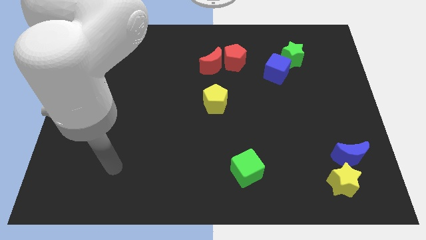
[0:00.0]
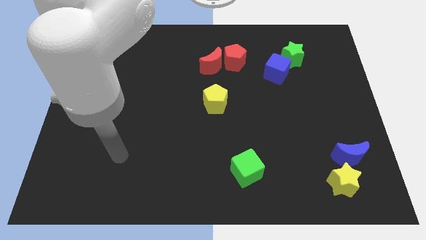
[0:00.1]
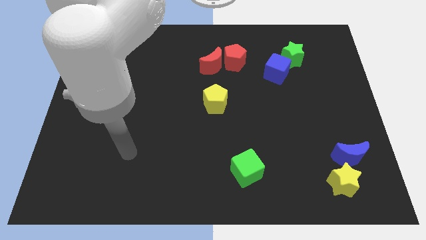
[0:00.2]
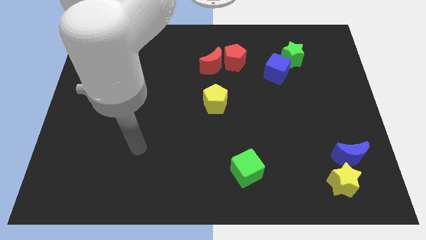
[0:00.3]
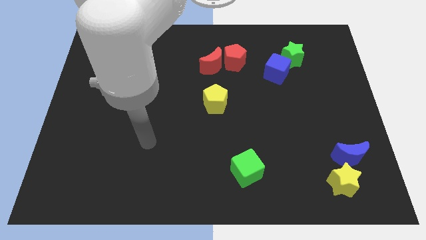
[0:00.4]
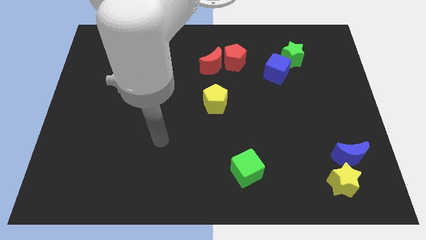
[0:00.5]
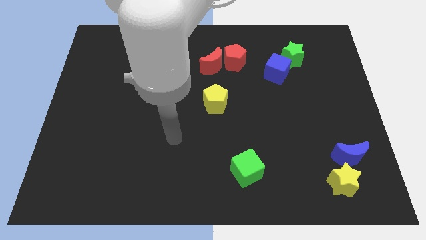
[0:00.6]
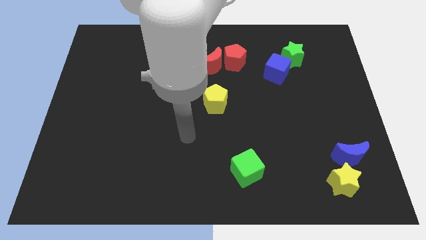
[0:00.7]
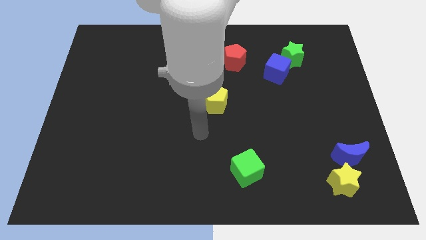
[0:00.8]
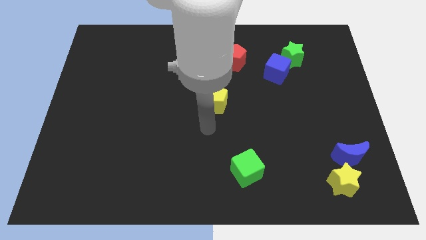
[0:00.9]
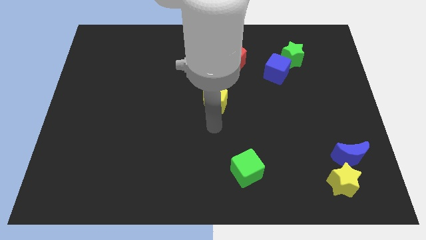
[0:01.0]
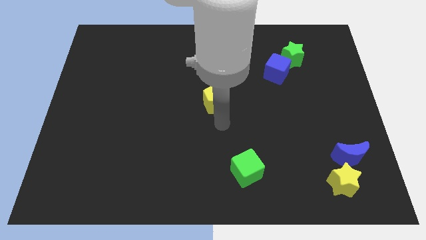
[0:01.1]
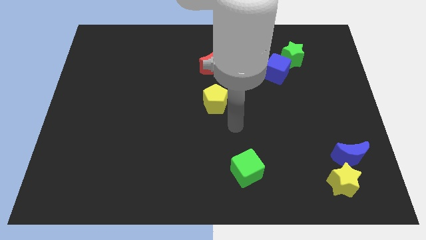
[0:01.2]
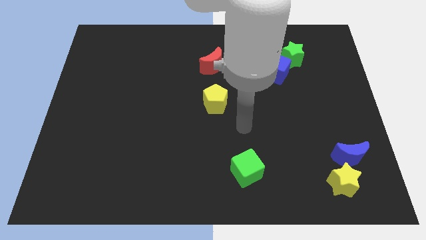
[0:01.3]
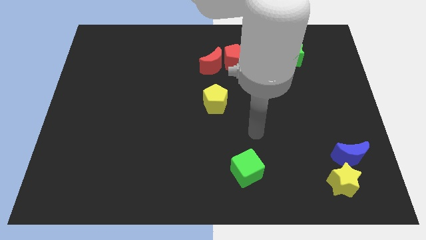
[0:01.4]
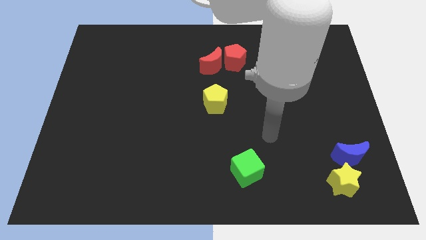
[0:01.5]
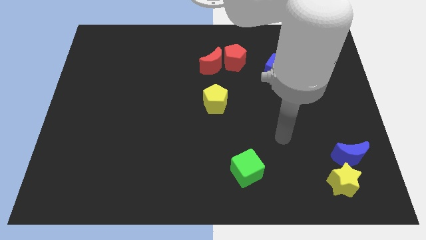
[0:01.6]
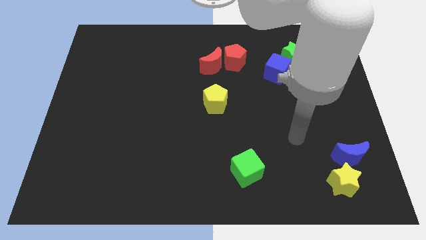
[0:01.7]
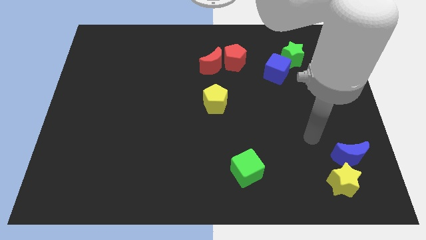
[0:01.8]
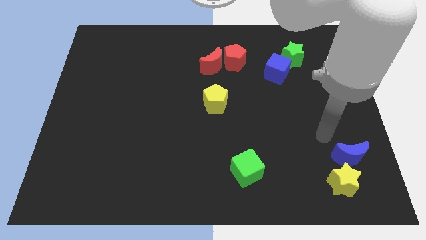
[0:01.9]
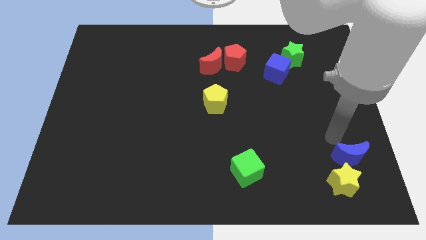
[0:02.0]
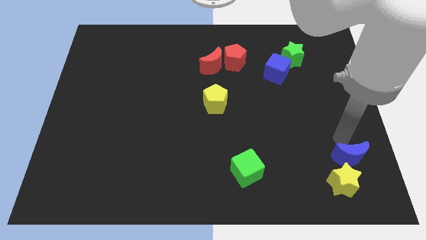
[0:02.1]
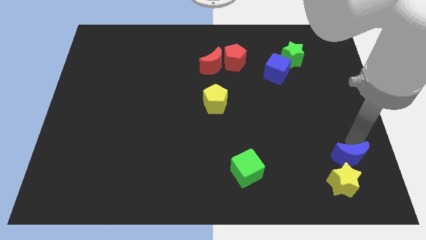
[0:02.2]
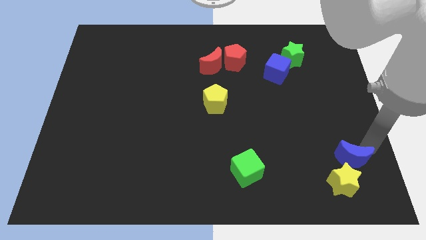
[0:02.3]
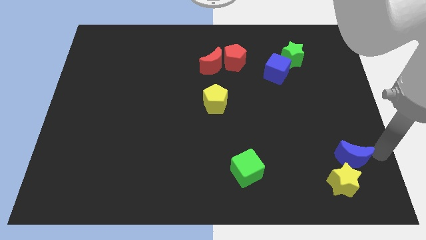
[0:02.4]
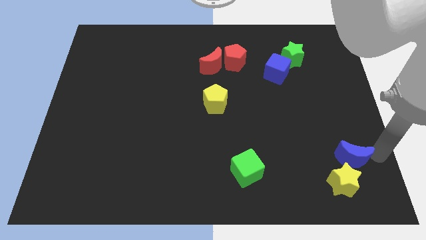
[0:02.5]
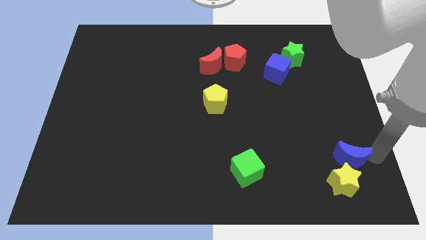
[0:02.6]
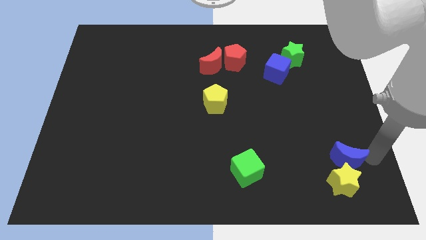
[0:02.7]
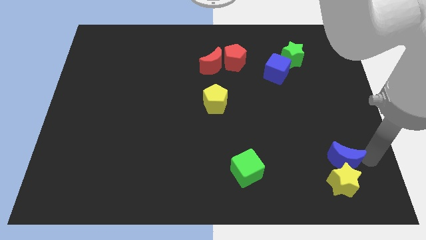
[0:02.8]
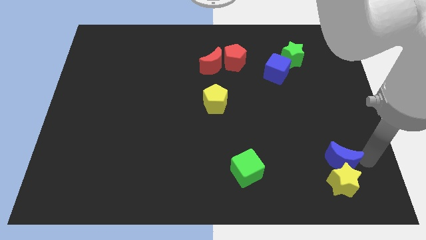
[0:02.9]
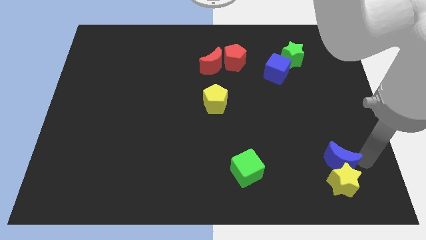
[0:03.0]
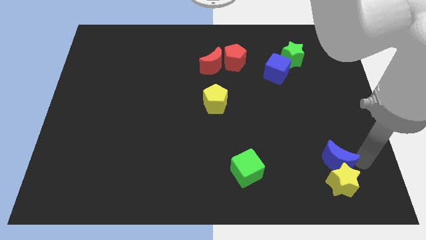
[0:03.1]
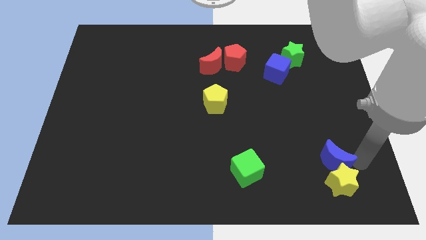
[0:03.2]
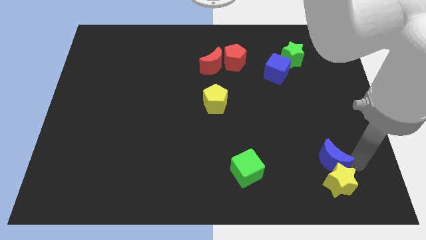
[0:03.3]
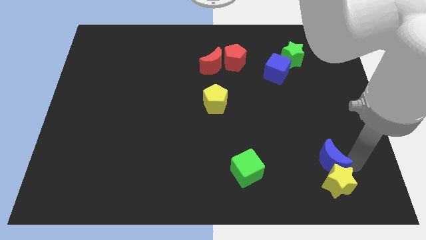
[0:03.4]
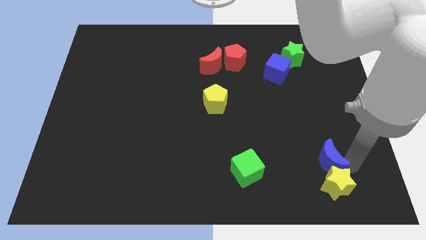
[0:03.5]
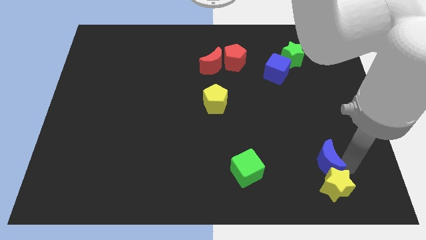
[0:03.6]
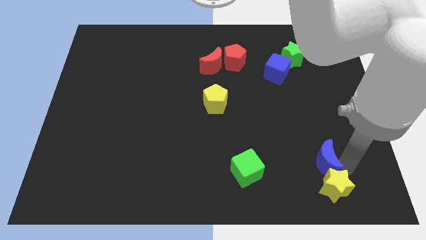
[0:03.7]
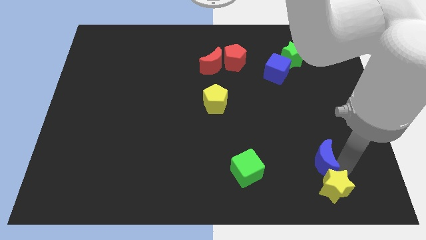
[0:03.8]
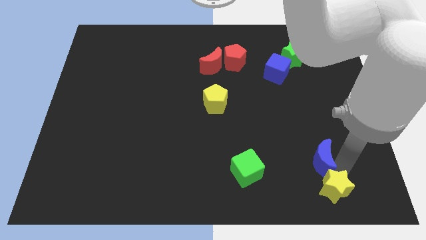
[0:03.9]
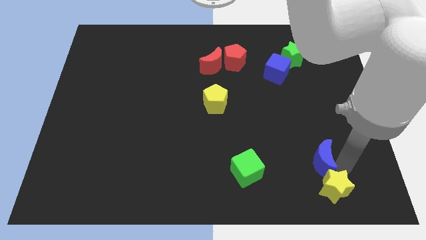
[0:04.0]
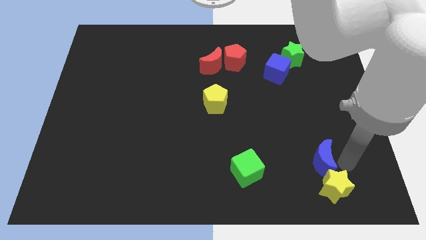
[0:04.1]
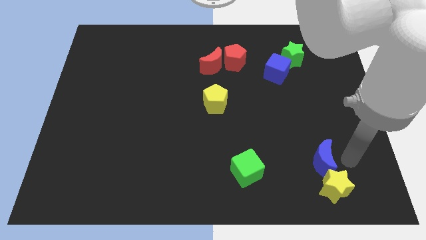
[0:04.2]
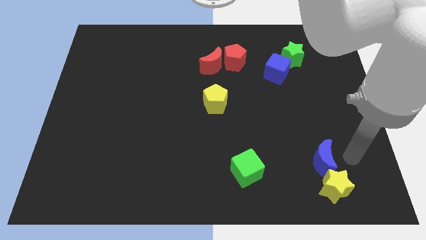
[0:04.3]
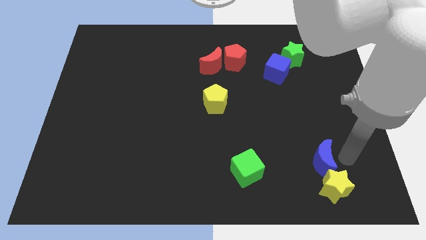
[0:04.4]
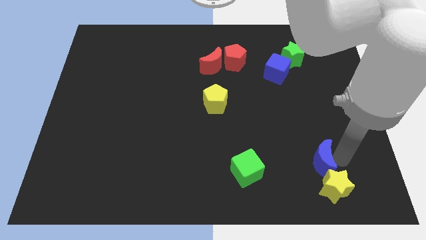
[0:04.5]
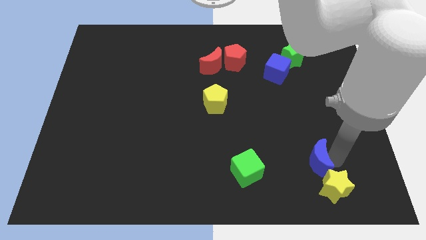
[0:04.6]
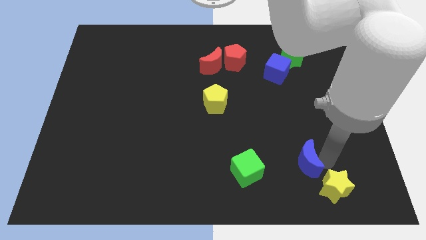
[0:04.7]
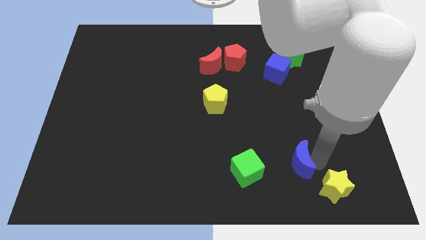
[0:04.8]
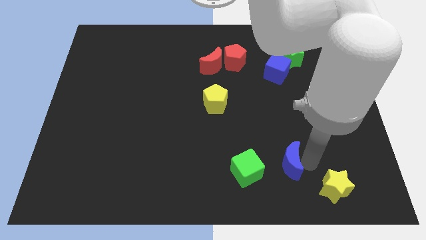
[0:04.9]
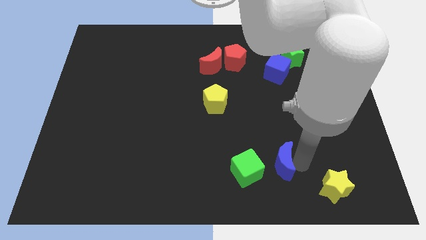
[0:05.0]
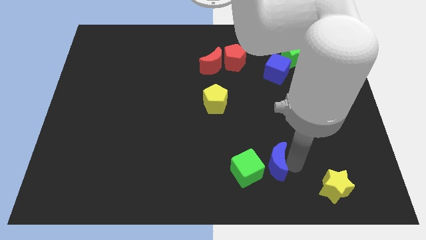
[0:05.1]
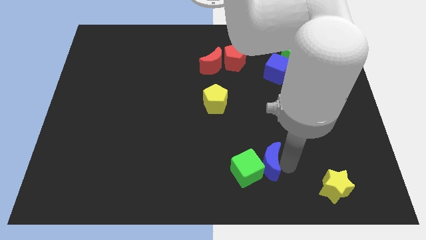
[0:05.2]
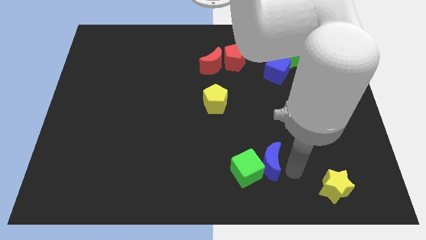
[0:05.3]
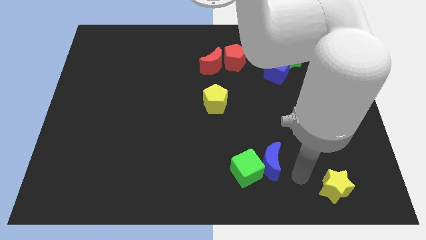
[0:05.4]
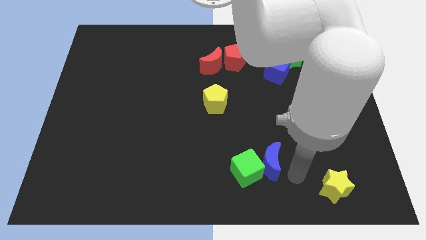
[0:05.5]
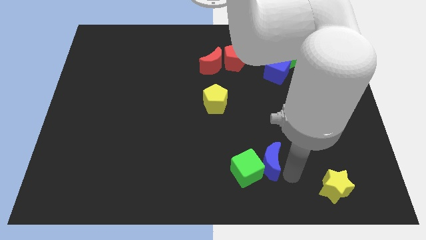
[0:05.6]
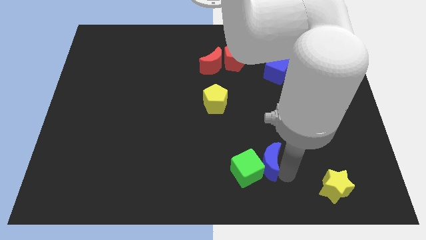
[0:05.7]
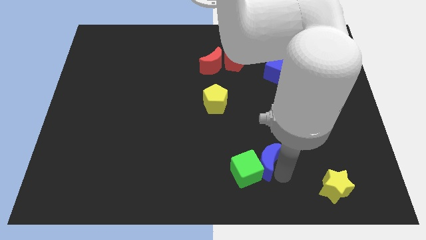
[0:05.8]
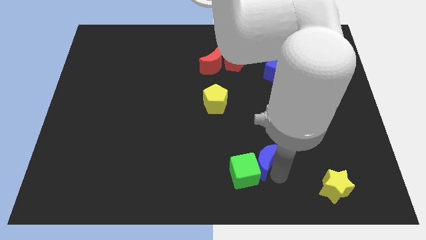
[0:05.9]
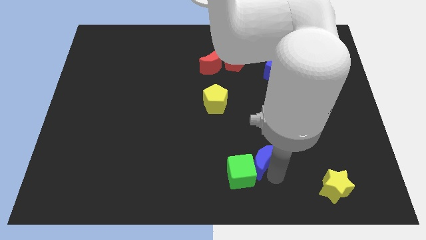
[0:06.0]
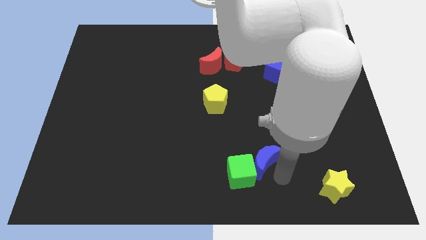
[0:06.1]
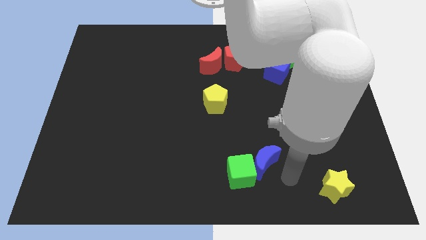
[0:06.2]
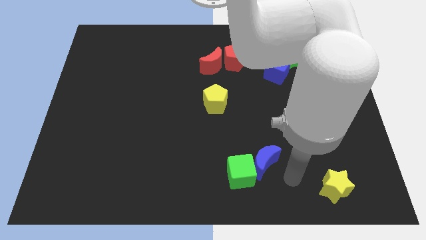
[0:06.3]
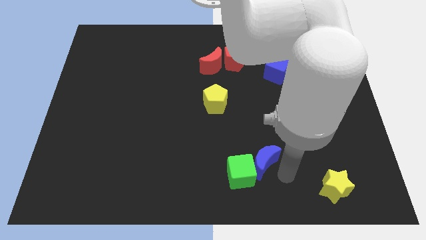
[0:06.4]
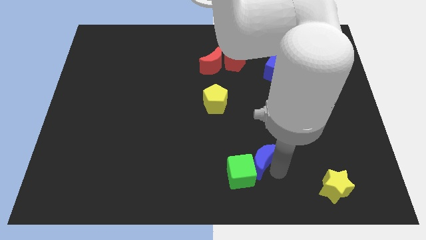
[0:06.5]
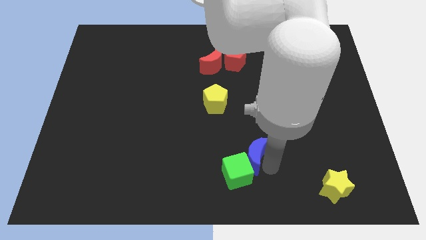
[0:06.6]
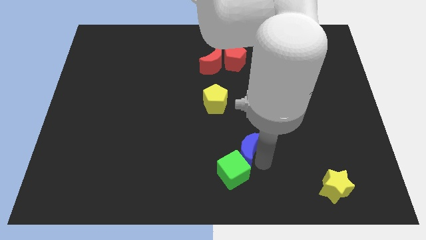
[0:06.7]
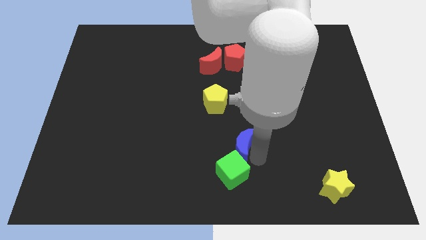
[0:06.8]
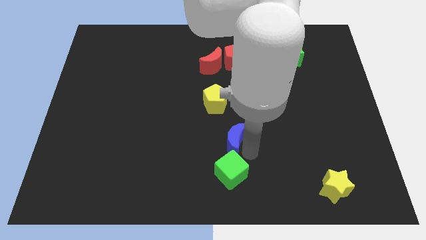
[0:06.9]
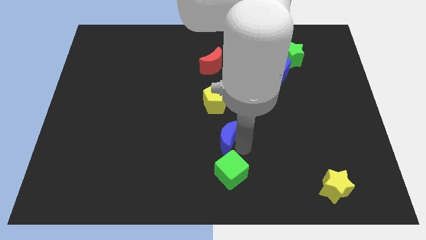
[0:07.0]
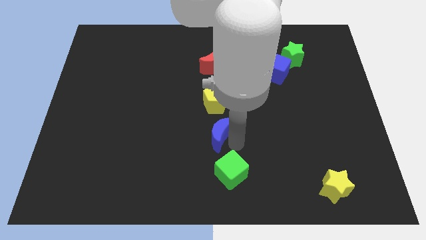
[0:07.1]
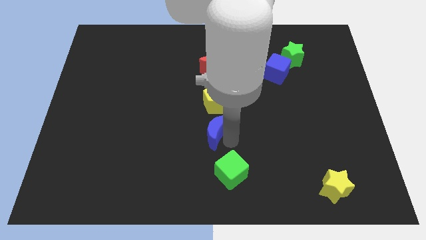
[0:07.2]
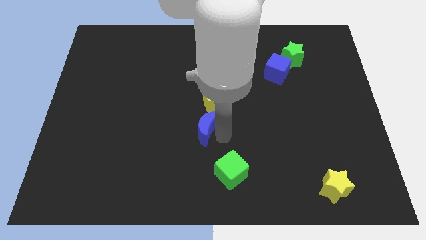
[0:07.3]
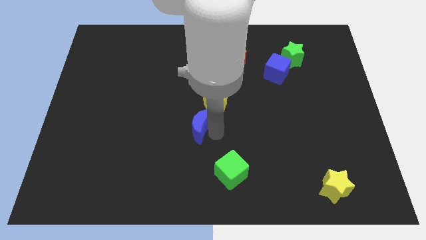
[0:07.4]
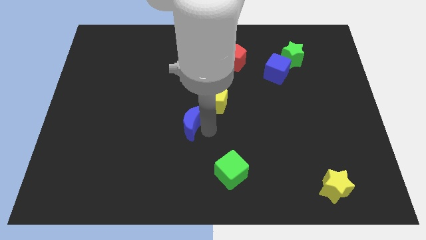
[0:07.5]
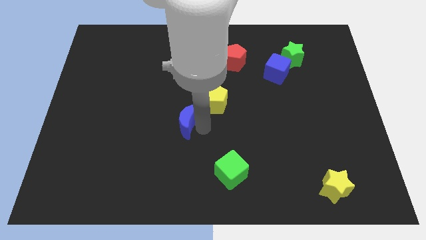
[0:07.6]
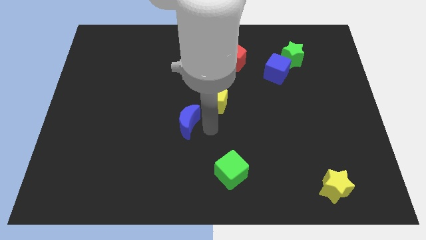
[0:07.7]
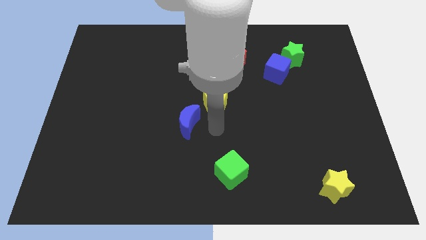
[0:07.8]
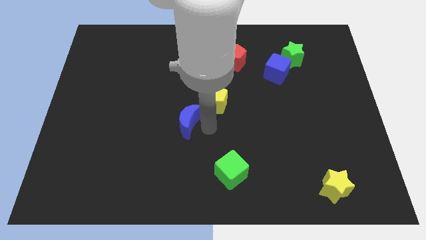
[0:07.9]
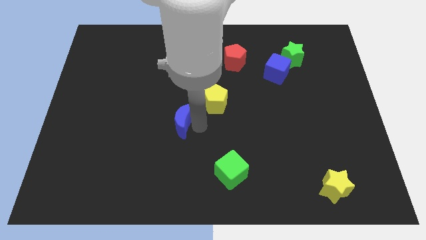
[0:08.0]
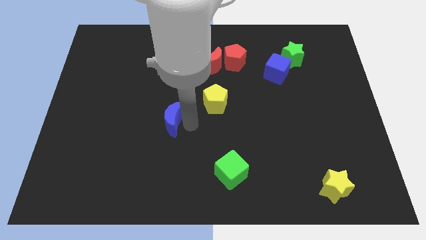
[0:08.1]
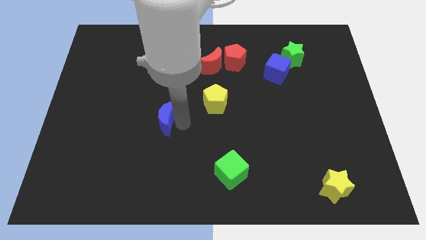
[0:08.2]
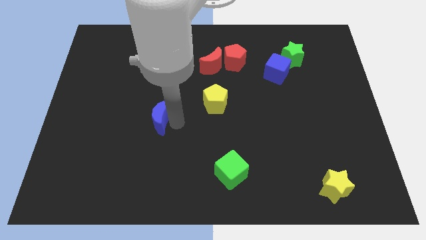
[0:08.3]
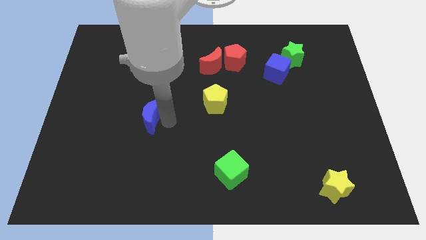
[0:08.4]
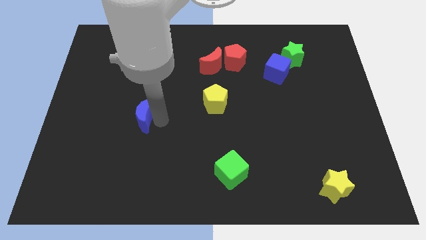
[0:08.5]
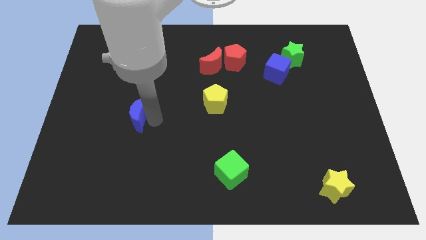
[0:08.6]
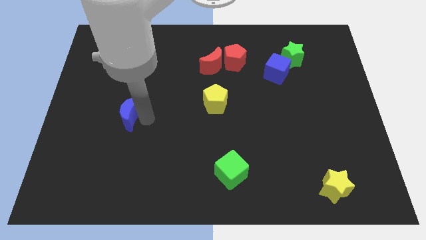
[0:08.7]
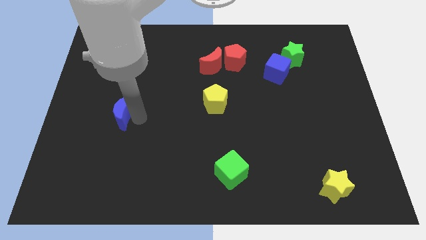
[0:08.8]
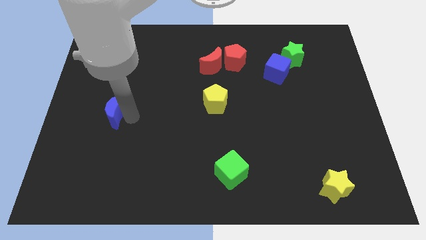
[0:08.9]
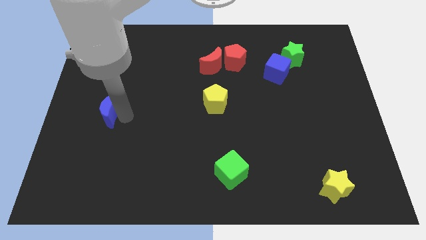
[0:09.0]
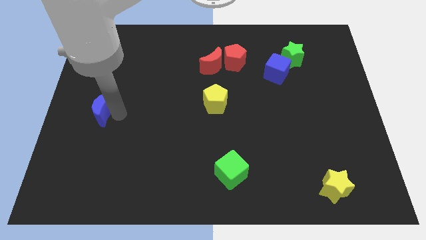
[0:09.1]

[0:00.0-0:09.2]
push the blue moon to the left side of the board
